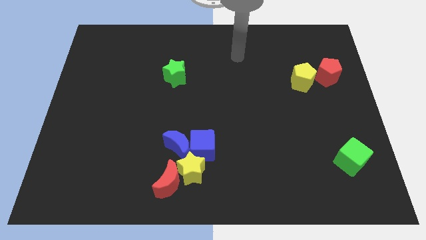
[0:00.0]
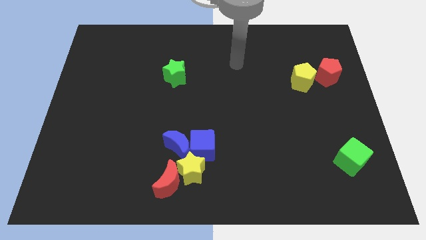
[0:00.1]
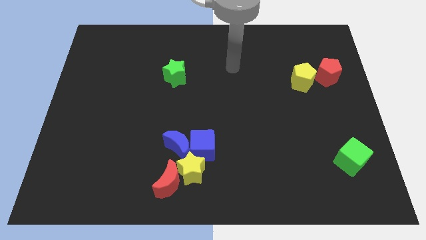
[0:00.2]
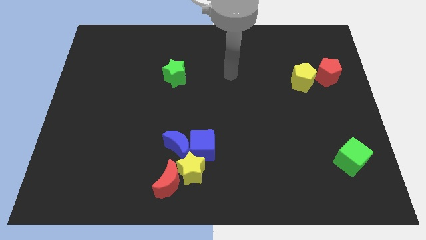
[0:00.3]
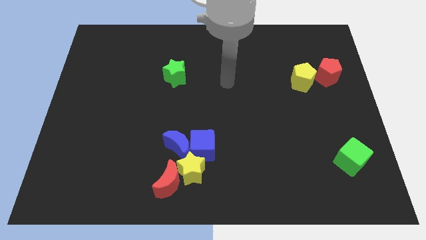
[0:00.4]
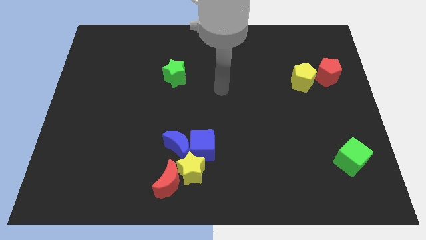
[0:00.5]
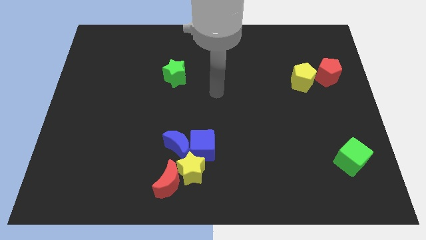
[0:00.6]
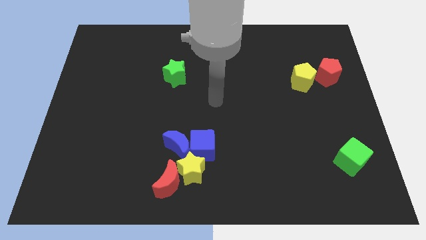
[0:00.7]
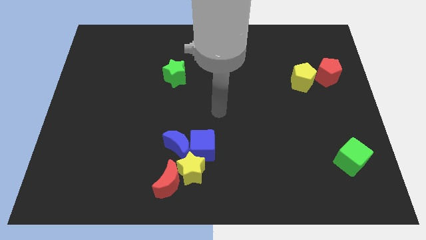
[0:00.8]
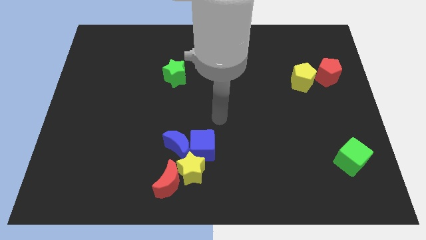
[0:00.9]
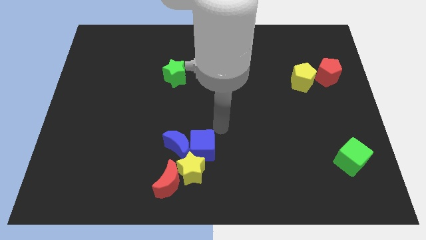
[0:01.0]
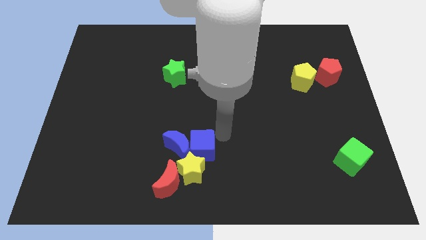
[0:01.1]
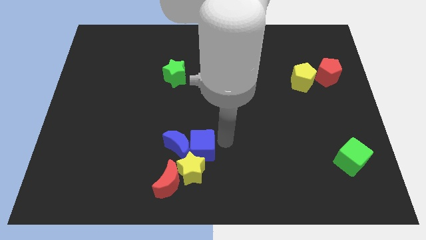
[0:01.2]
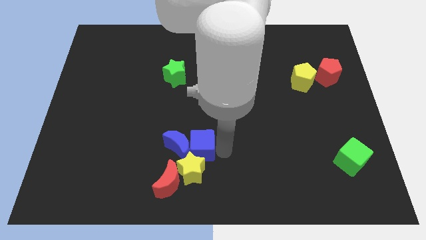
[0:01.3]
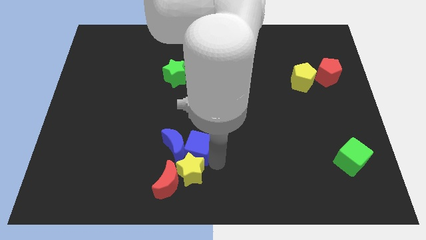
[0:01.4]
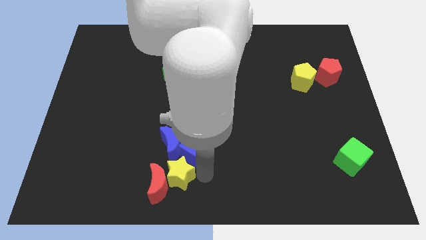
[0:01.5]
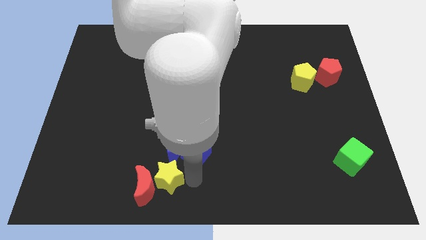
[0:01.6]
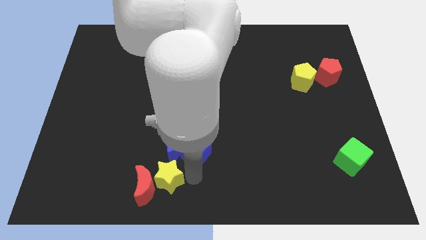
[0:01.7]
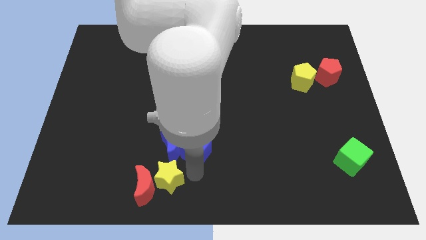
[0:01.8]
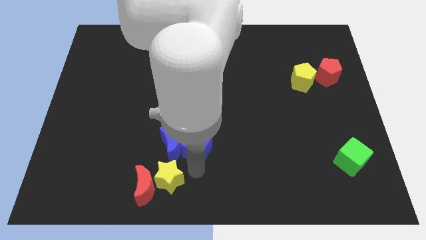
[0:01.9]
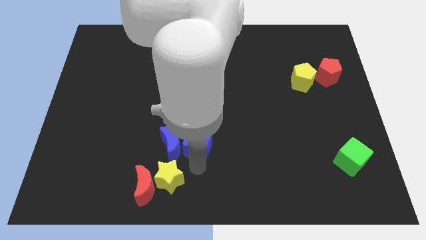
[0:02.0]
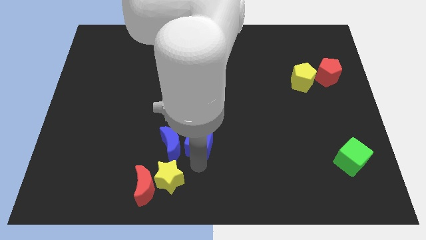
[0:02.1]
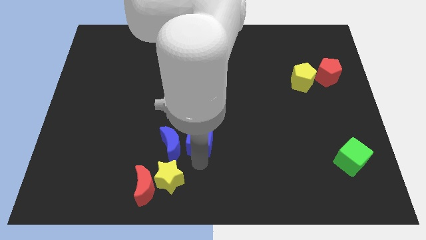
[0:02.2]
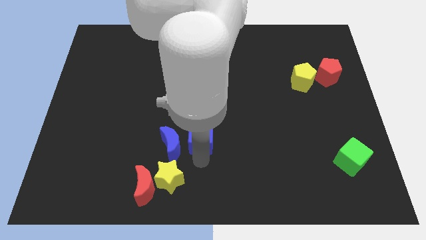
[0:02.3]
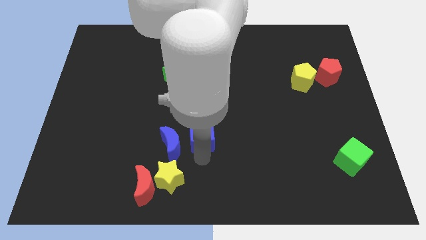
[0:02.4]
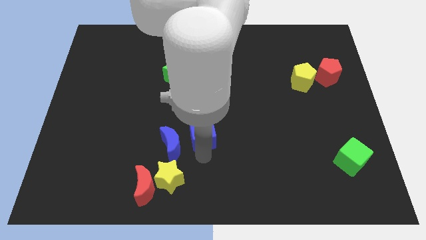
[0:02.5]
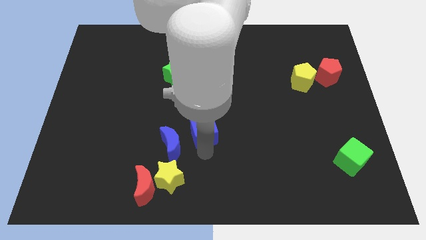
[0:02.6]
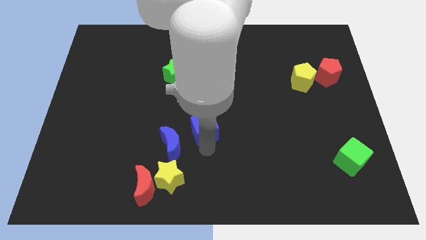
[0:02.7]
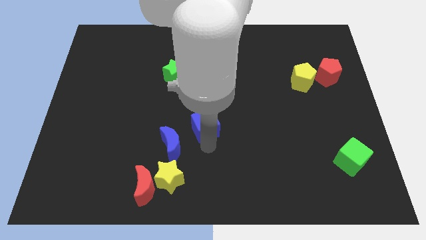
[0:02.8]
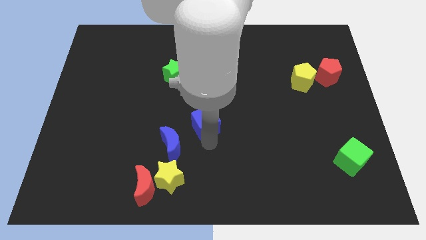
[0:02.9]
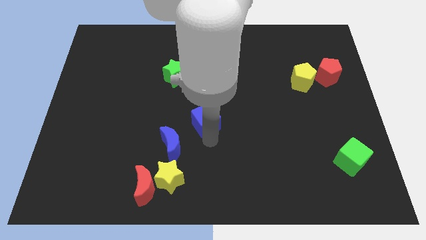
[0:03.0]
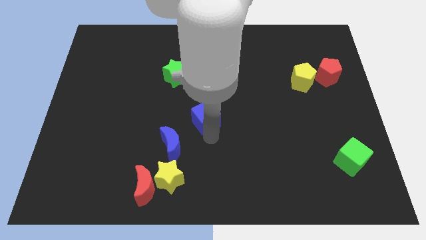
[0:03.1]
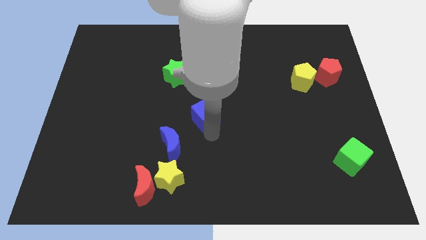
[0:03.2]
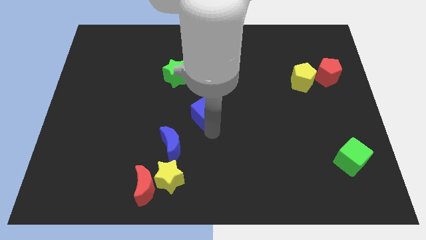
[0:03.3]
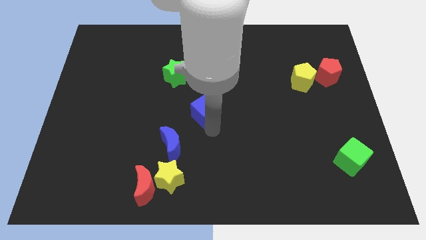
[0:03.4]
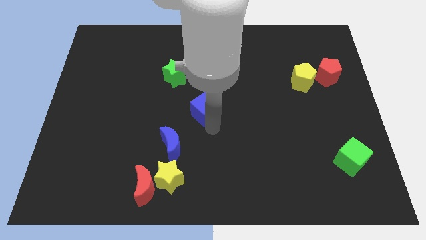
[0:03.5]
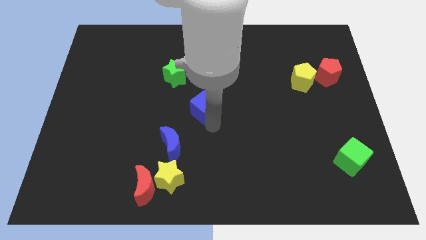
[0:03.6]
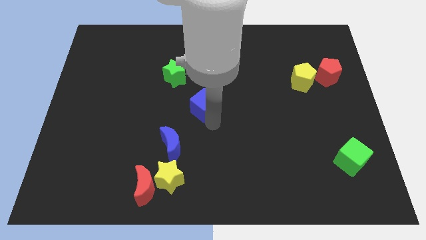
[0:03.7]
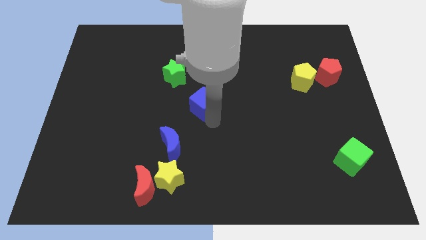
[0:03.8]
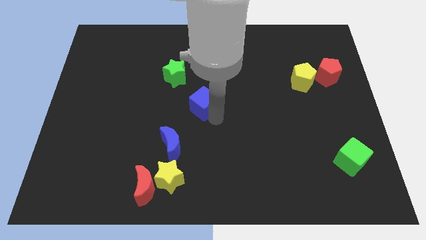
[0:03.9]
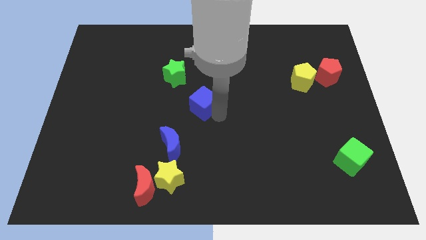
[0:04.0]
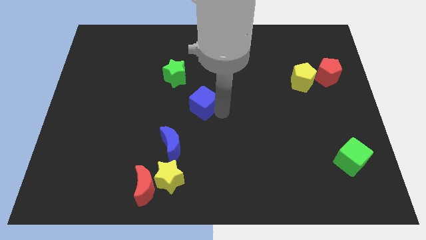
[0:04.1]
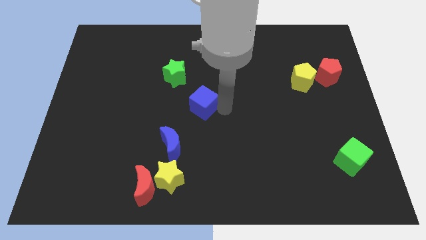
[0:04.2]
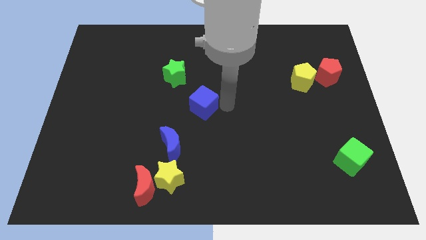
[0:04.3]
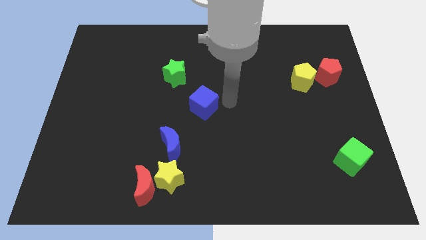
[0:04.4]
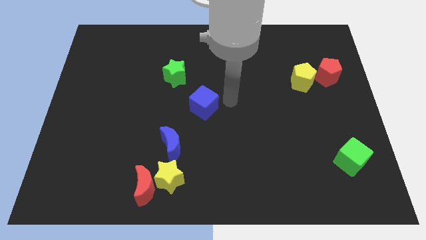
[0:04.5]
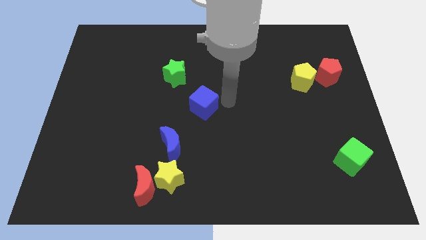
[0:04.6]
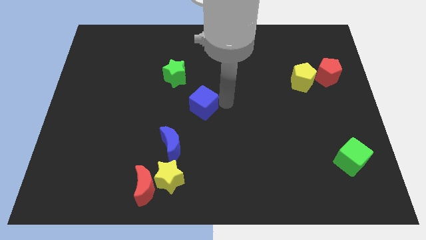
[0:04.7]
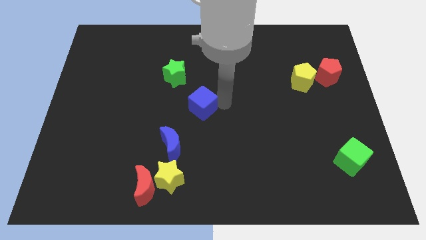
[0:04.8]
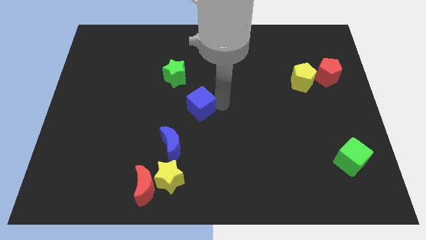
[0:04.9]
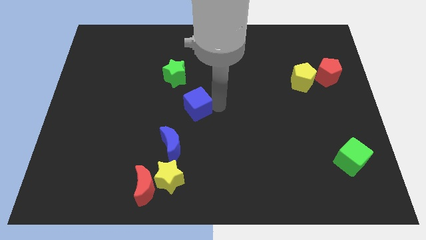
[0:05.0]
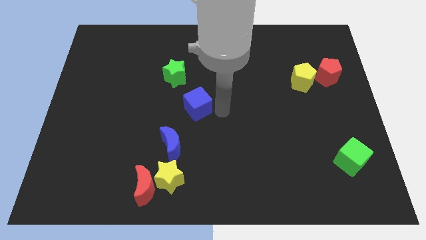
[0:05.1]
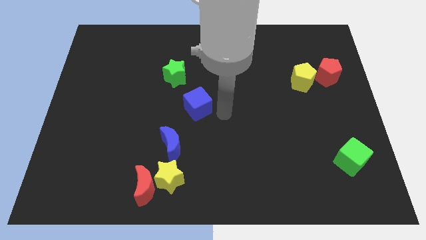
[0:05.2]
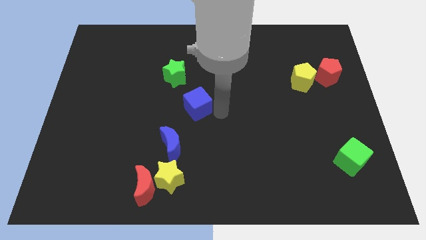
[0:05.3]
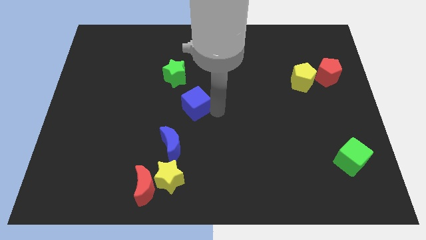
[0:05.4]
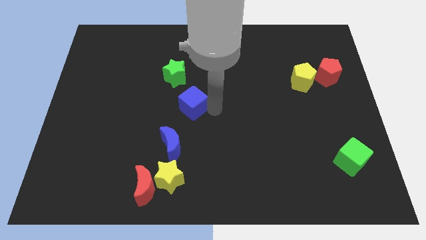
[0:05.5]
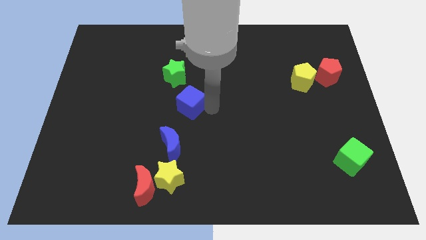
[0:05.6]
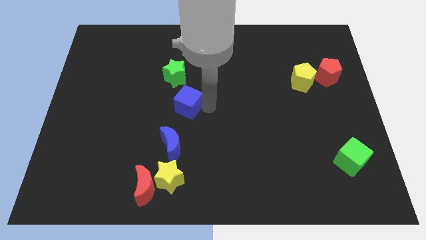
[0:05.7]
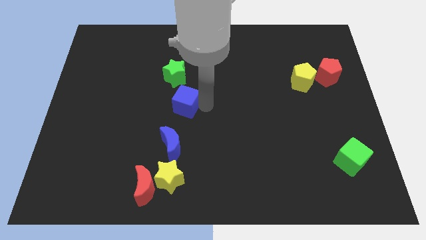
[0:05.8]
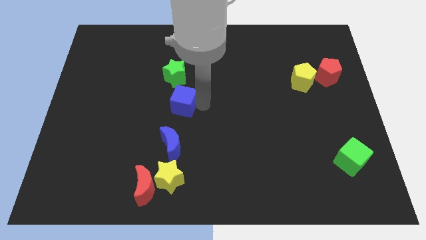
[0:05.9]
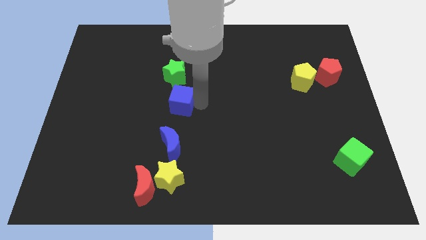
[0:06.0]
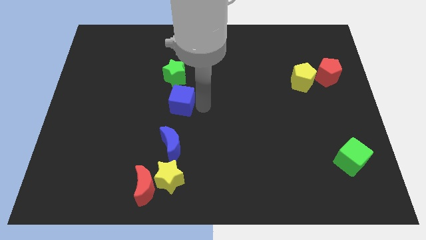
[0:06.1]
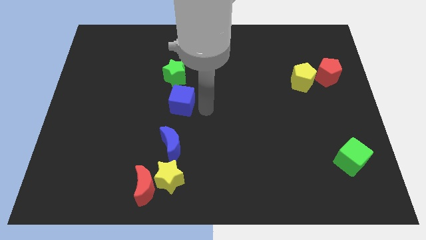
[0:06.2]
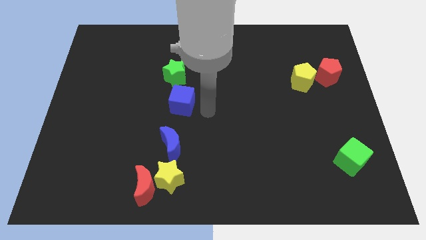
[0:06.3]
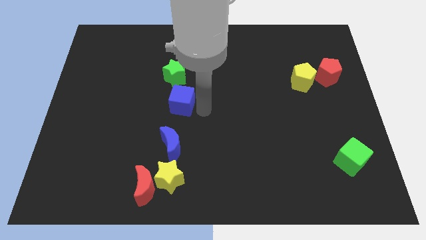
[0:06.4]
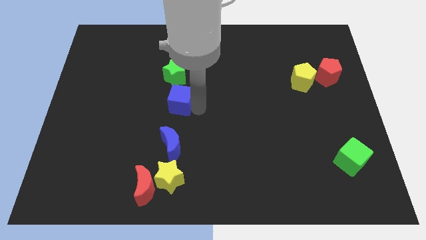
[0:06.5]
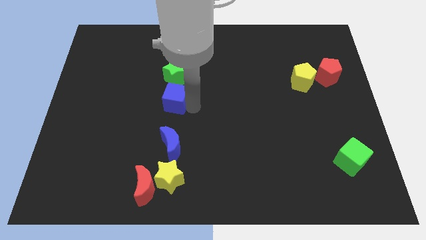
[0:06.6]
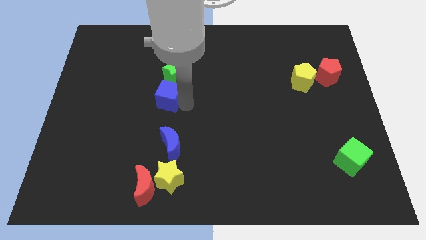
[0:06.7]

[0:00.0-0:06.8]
move the blue cube to the bottom left of the green star
